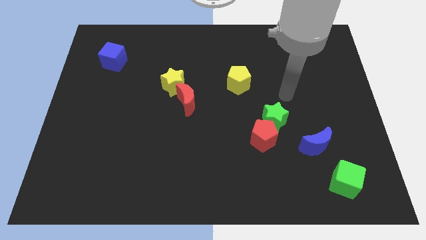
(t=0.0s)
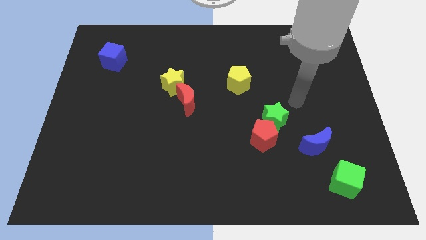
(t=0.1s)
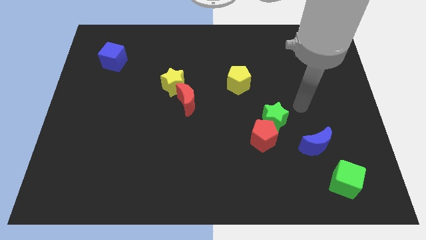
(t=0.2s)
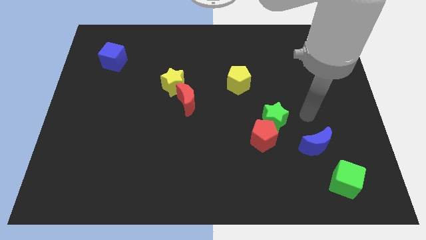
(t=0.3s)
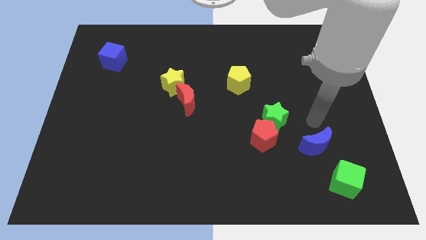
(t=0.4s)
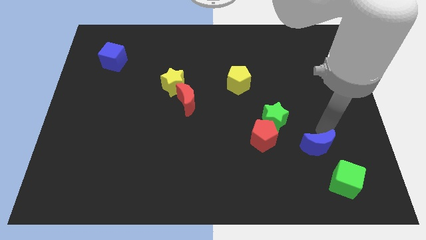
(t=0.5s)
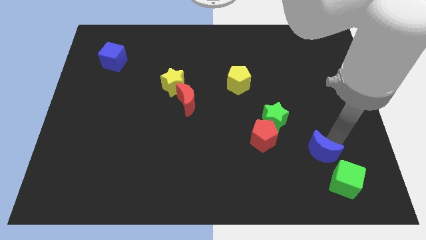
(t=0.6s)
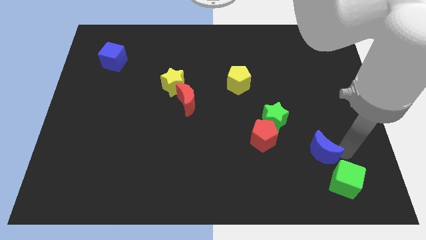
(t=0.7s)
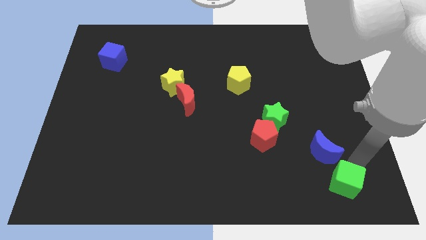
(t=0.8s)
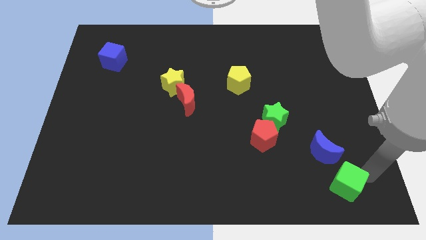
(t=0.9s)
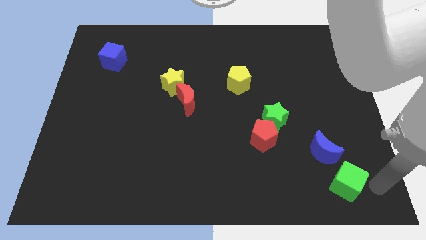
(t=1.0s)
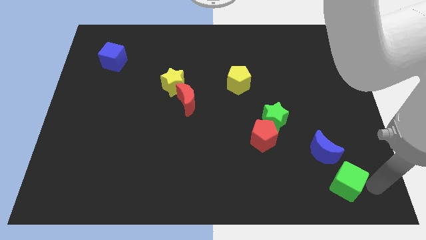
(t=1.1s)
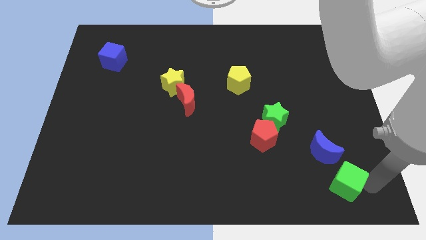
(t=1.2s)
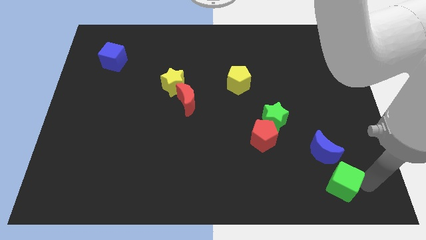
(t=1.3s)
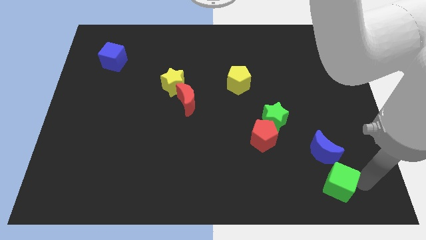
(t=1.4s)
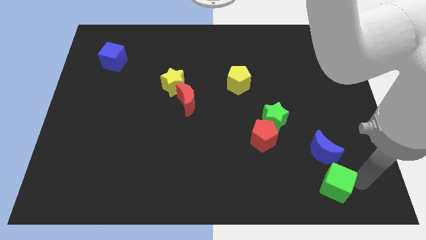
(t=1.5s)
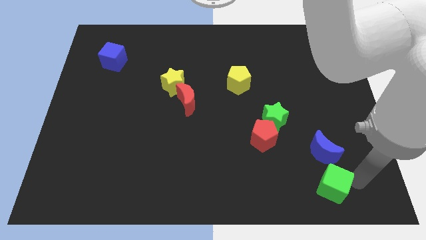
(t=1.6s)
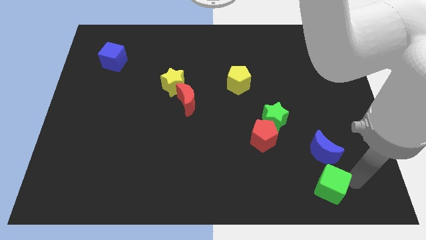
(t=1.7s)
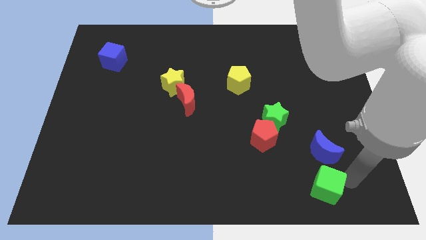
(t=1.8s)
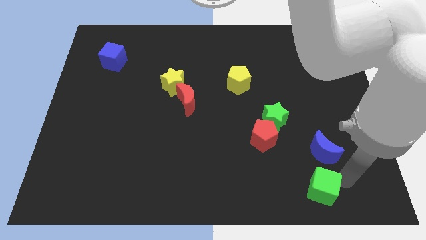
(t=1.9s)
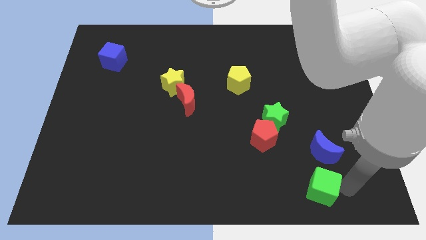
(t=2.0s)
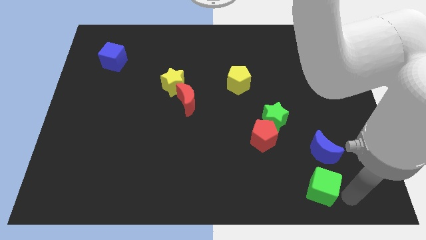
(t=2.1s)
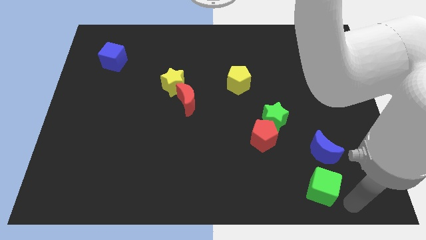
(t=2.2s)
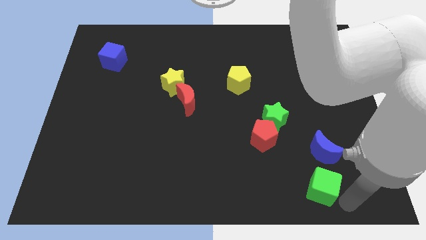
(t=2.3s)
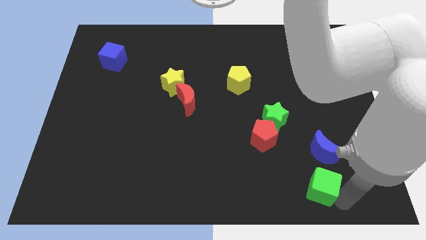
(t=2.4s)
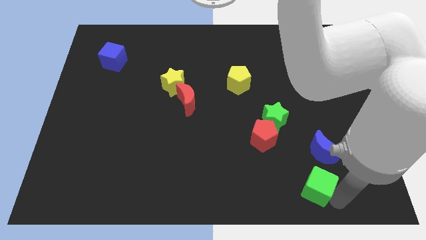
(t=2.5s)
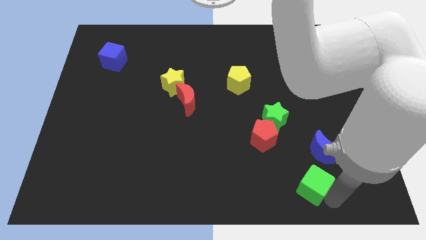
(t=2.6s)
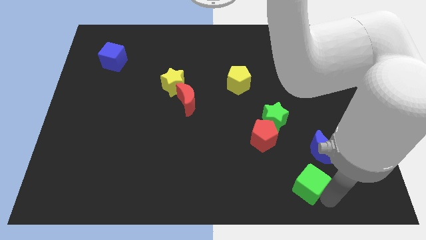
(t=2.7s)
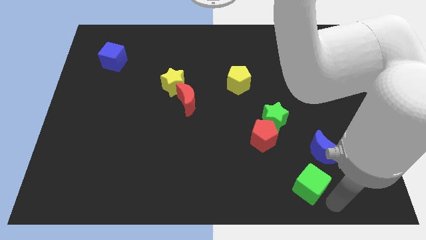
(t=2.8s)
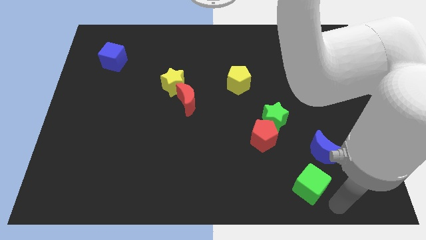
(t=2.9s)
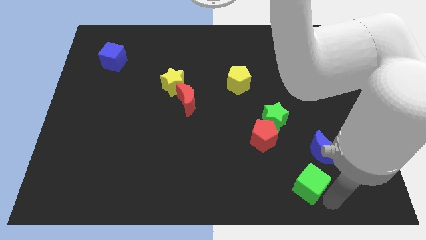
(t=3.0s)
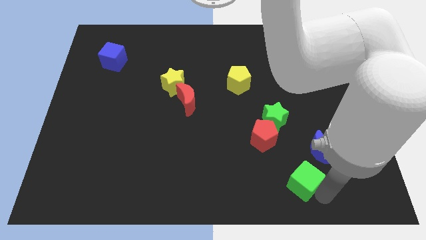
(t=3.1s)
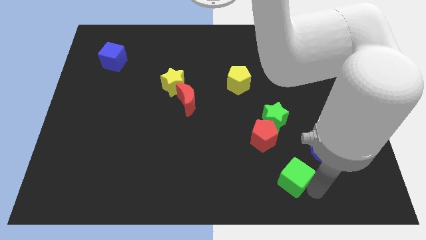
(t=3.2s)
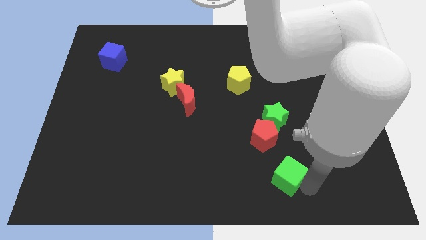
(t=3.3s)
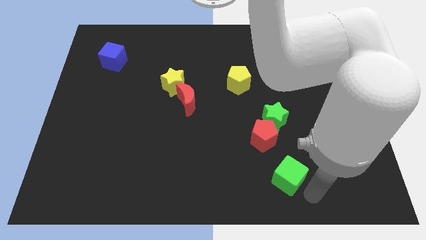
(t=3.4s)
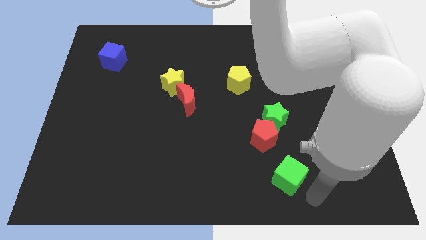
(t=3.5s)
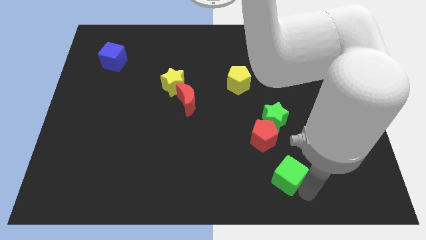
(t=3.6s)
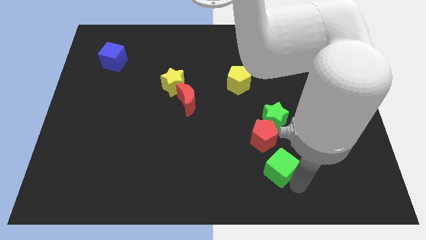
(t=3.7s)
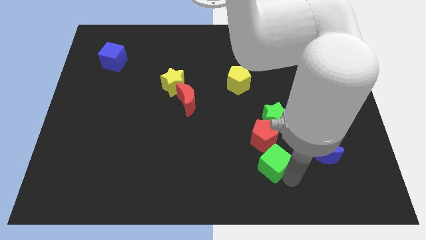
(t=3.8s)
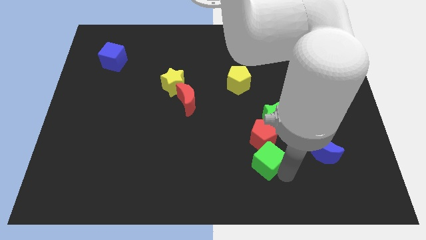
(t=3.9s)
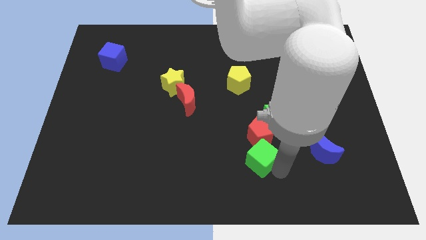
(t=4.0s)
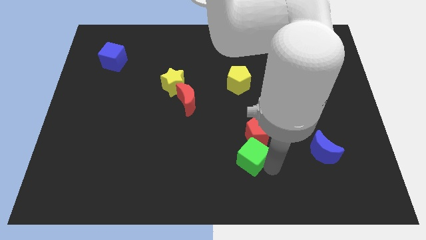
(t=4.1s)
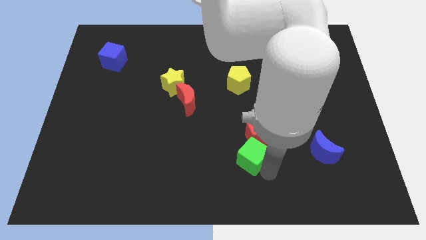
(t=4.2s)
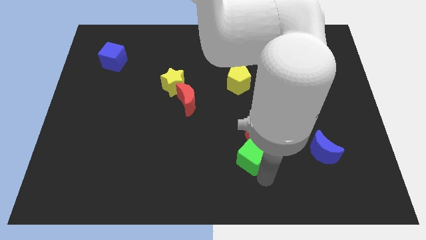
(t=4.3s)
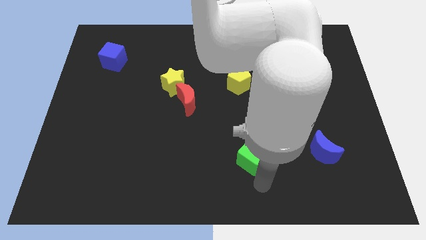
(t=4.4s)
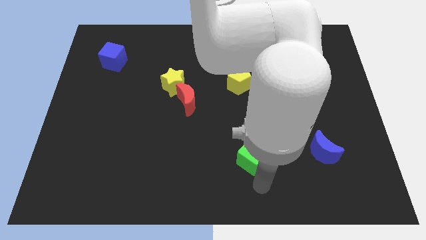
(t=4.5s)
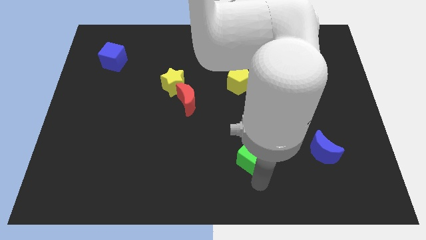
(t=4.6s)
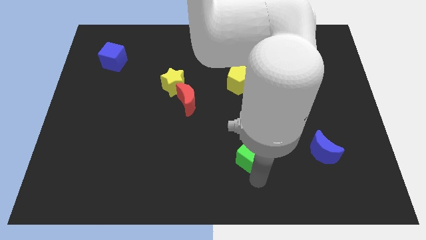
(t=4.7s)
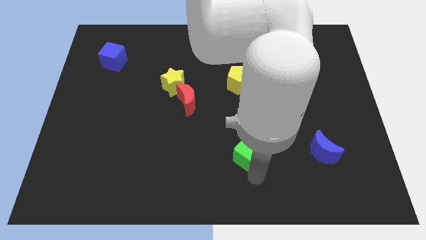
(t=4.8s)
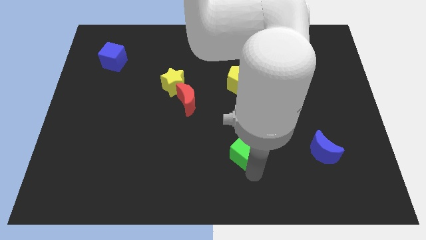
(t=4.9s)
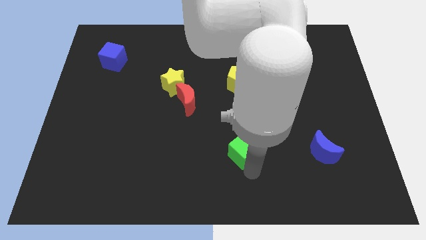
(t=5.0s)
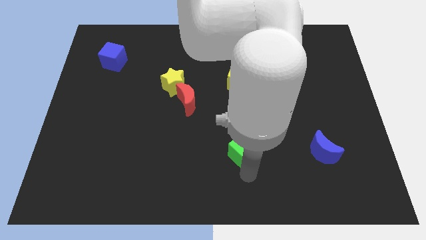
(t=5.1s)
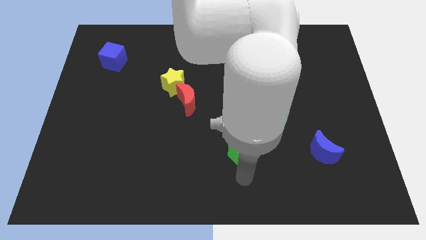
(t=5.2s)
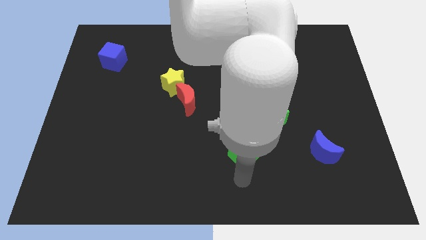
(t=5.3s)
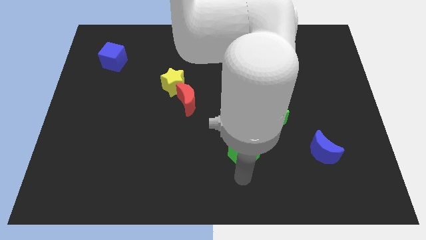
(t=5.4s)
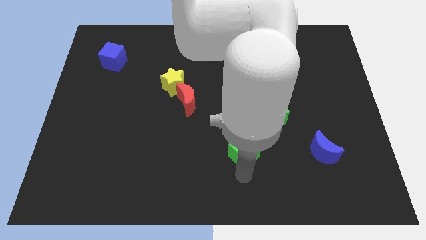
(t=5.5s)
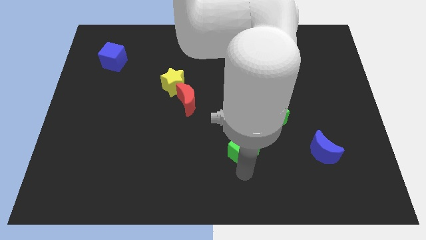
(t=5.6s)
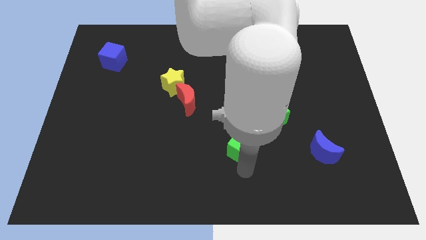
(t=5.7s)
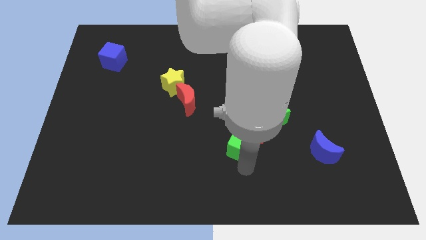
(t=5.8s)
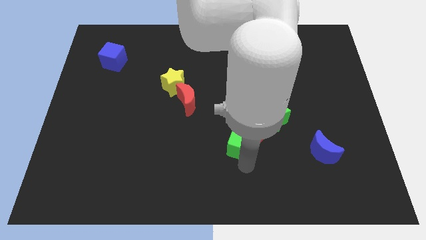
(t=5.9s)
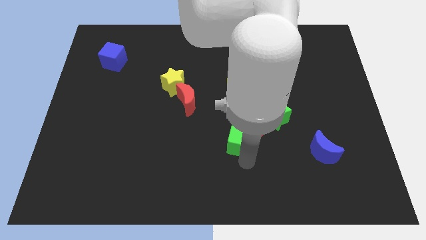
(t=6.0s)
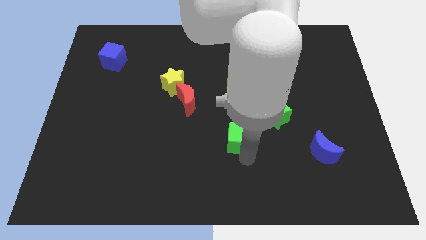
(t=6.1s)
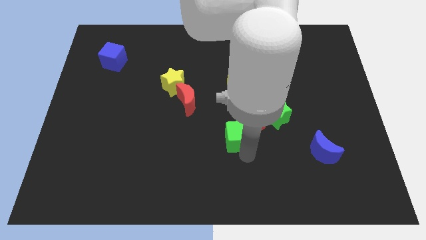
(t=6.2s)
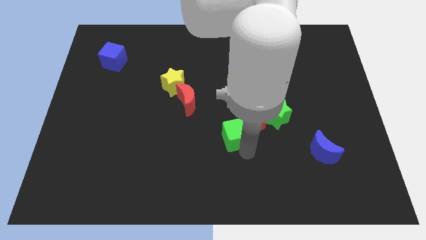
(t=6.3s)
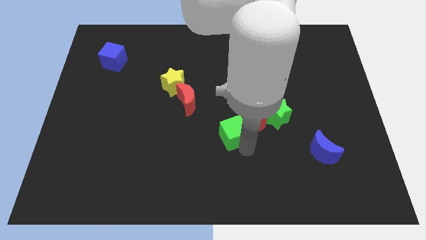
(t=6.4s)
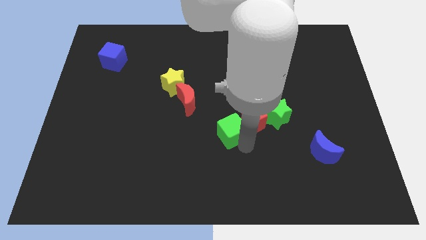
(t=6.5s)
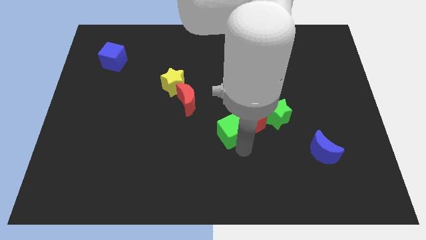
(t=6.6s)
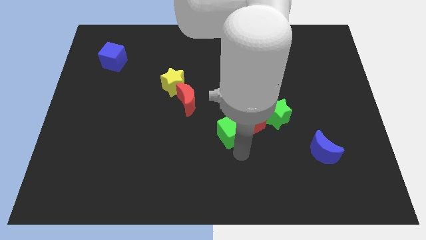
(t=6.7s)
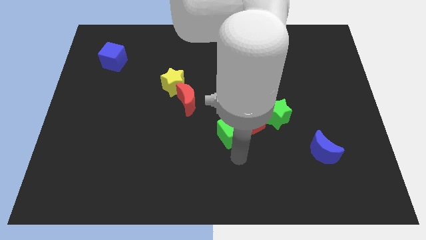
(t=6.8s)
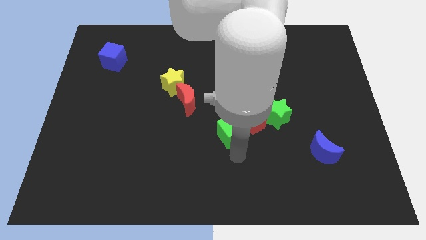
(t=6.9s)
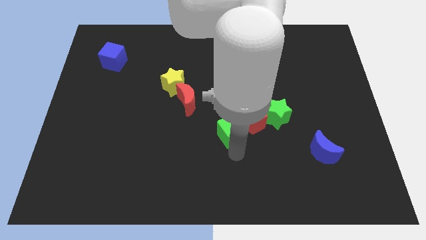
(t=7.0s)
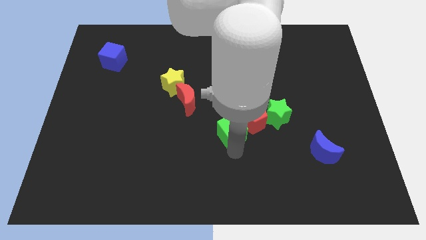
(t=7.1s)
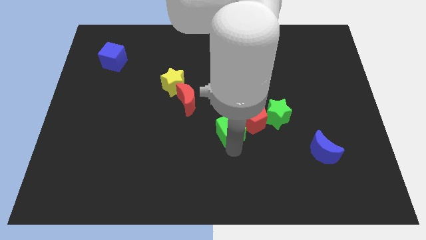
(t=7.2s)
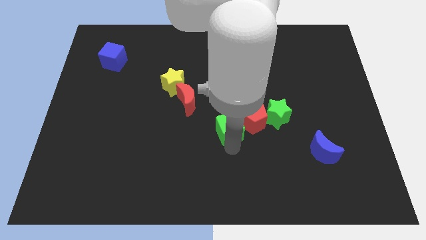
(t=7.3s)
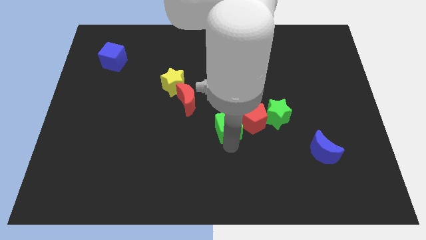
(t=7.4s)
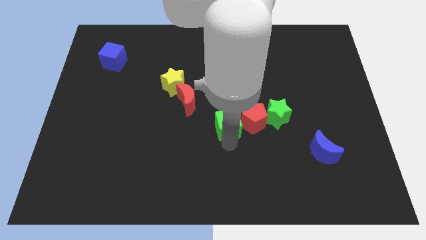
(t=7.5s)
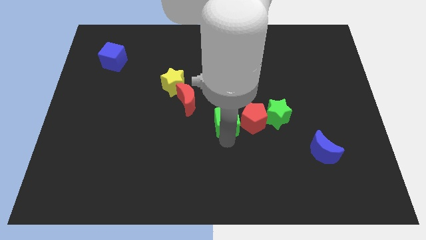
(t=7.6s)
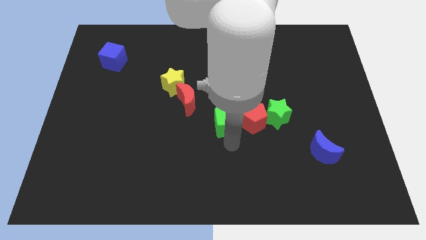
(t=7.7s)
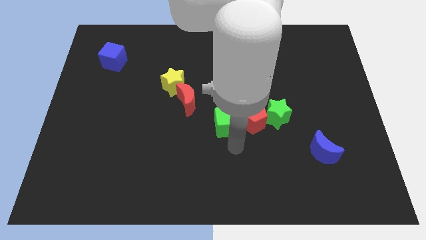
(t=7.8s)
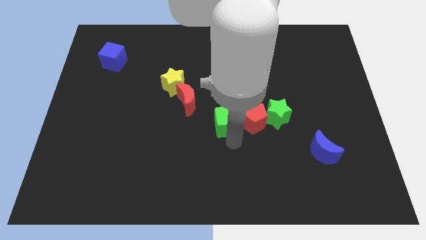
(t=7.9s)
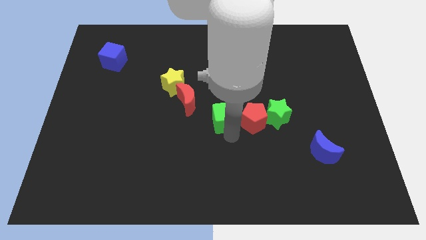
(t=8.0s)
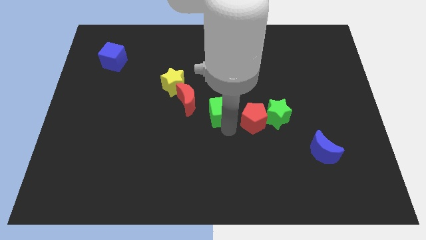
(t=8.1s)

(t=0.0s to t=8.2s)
slide the green cube to the bottom left side of the yellow pentagon
